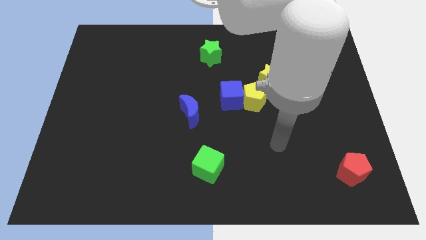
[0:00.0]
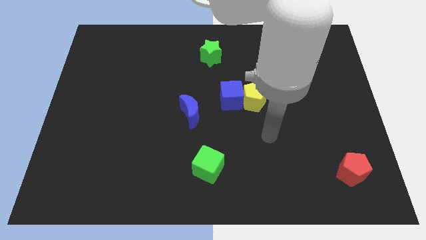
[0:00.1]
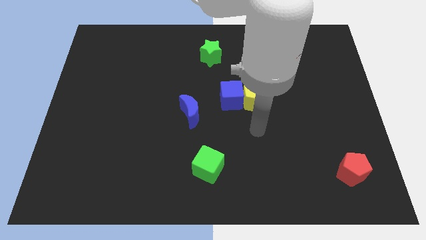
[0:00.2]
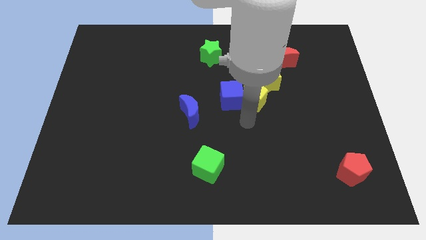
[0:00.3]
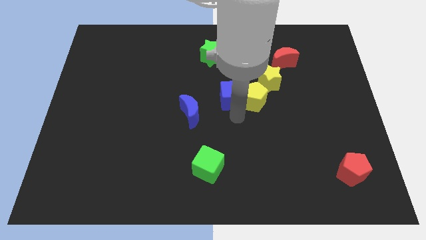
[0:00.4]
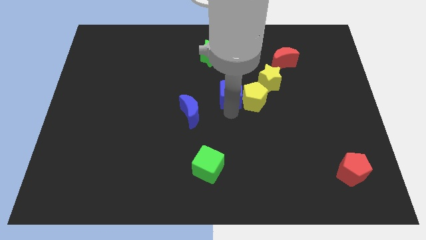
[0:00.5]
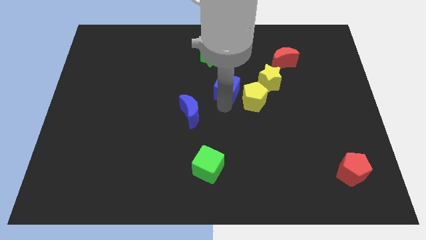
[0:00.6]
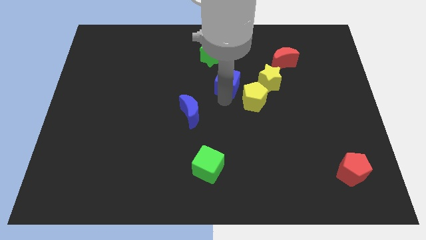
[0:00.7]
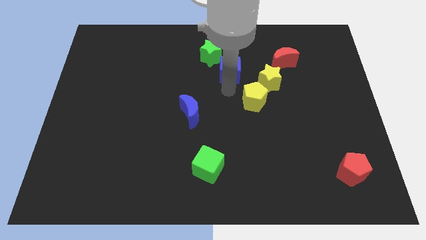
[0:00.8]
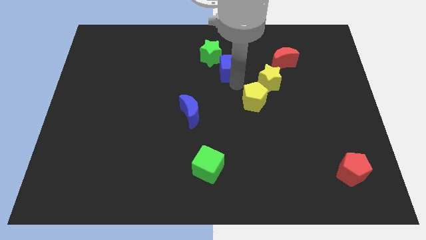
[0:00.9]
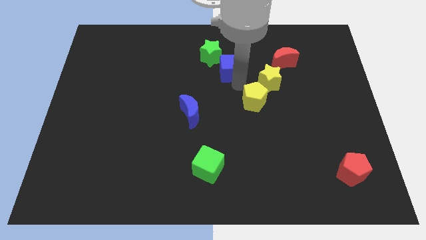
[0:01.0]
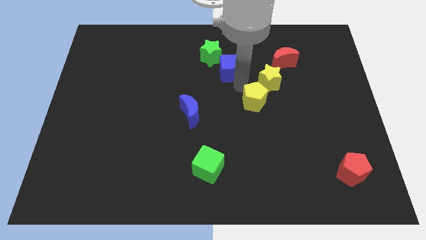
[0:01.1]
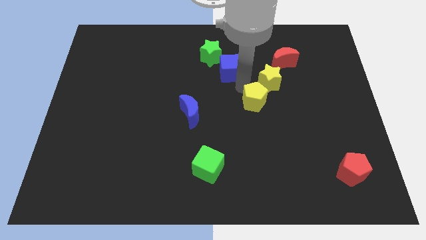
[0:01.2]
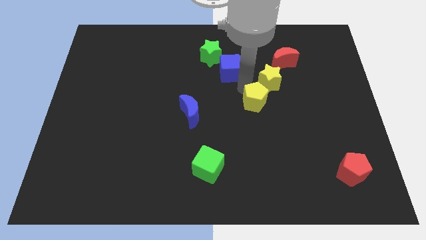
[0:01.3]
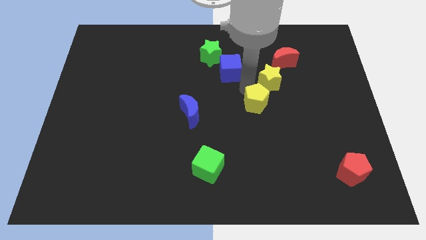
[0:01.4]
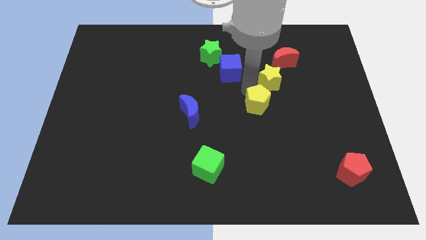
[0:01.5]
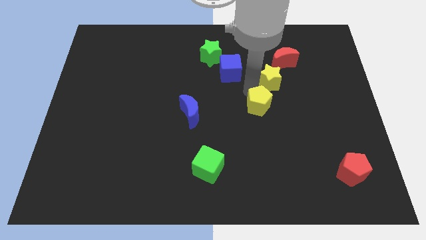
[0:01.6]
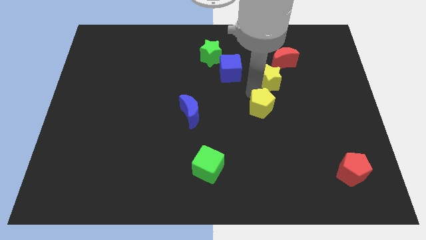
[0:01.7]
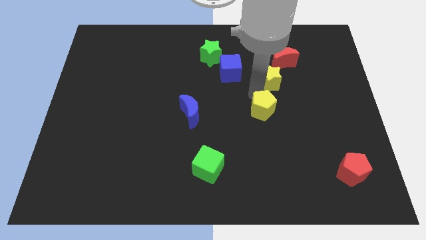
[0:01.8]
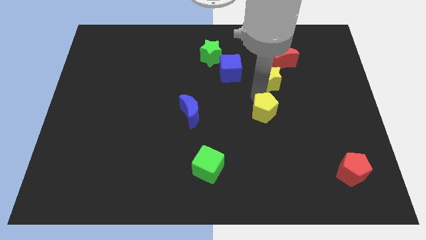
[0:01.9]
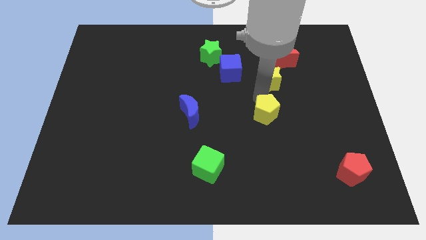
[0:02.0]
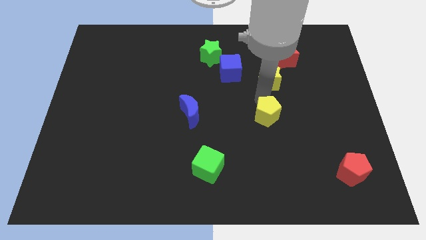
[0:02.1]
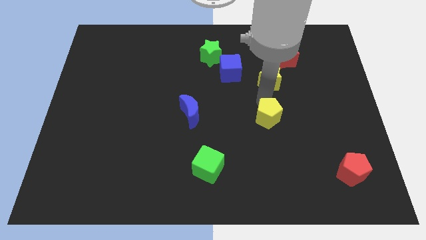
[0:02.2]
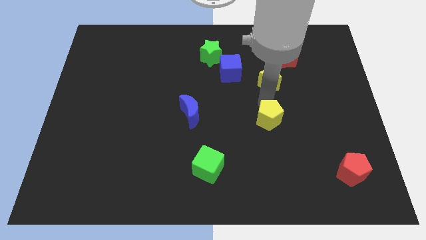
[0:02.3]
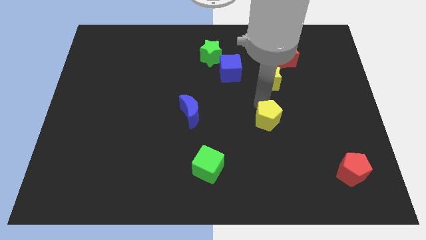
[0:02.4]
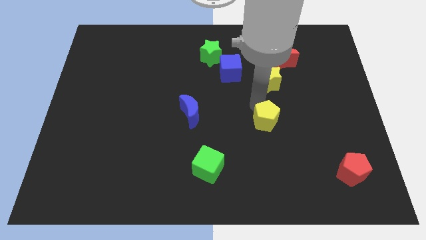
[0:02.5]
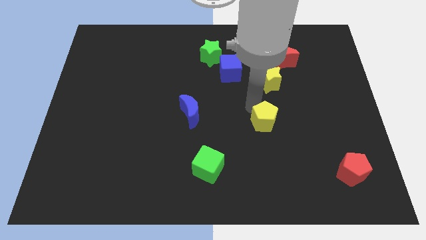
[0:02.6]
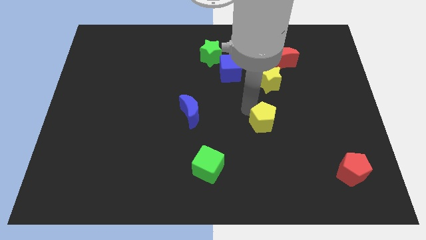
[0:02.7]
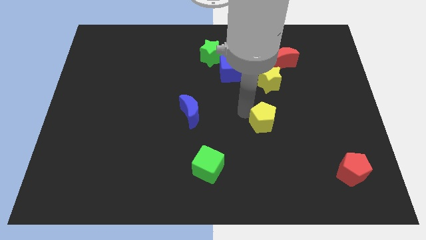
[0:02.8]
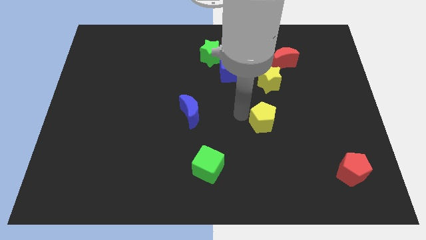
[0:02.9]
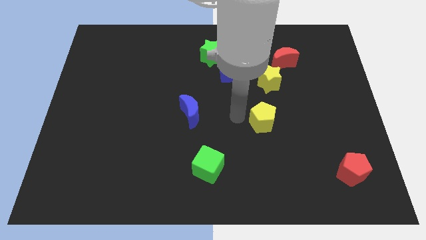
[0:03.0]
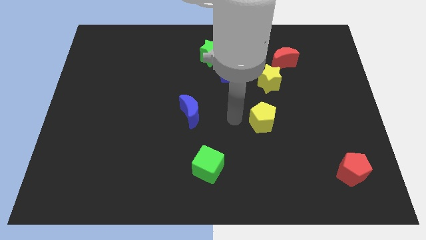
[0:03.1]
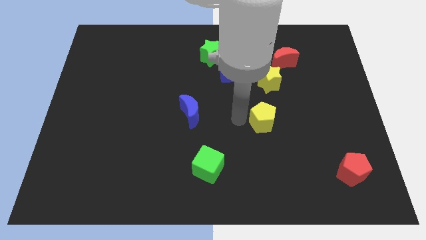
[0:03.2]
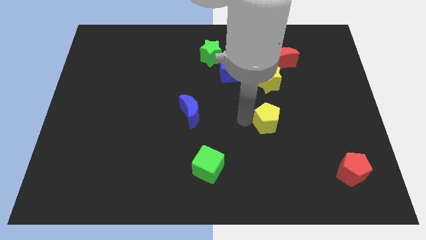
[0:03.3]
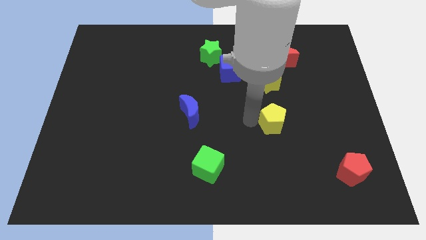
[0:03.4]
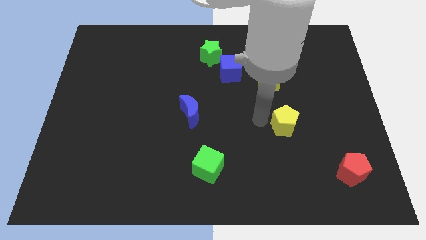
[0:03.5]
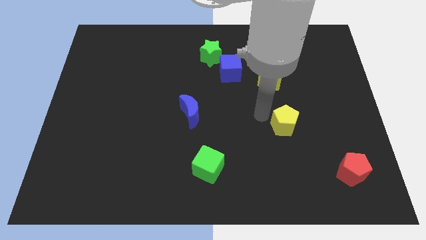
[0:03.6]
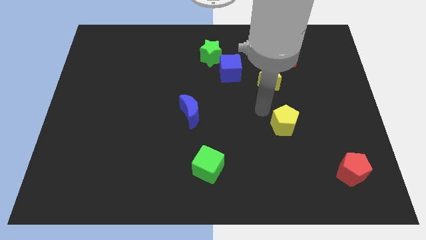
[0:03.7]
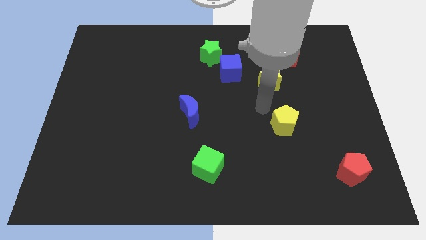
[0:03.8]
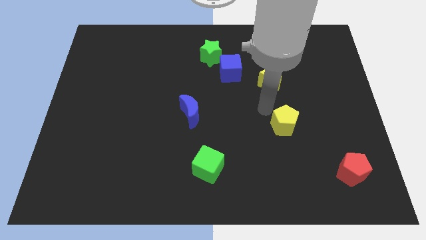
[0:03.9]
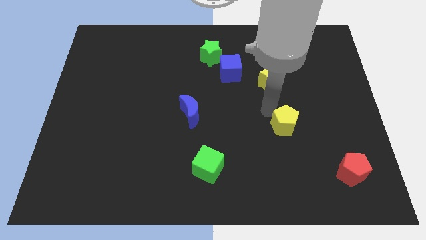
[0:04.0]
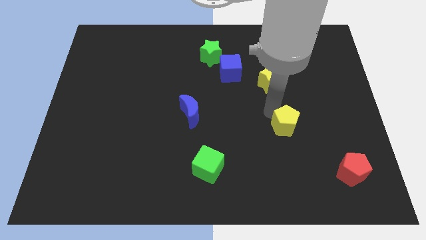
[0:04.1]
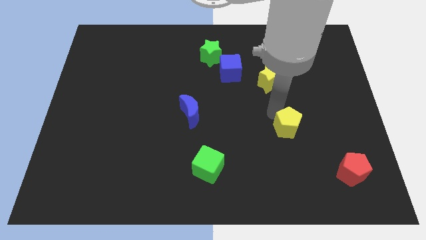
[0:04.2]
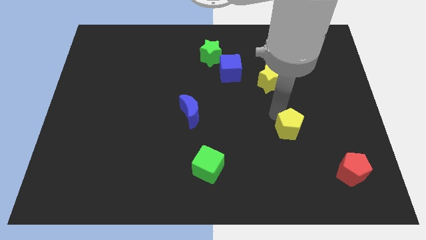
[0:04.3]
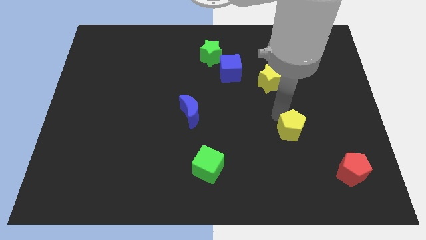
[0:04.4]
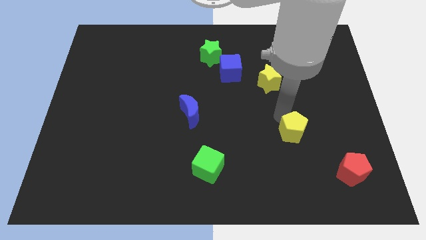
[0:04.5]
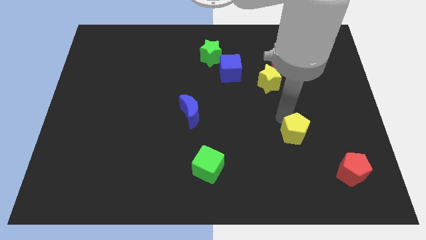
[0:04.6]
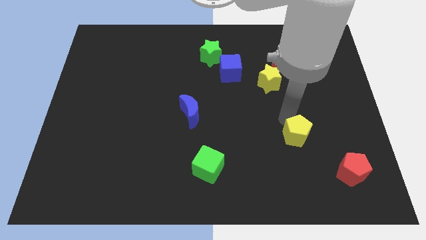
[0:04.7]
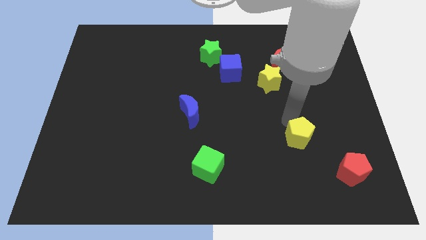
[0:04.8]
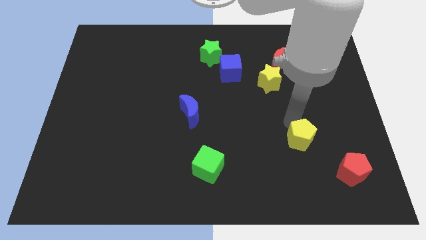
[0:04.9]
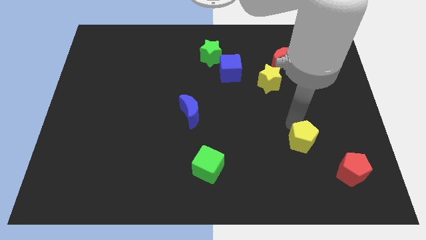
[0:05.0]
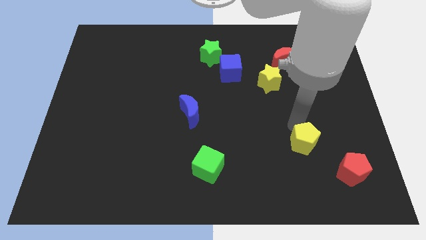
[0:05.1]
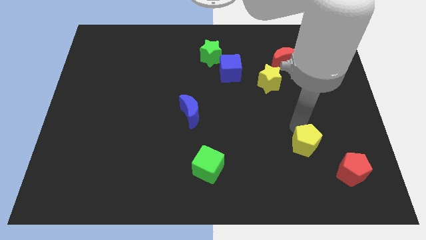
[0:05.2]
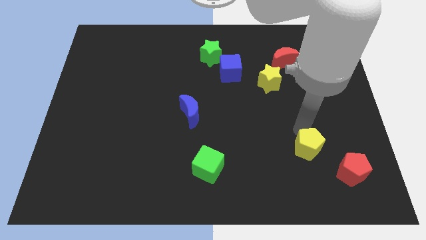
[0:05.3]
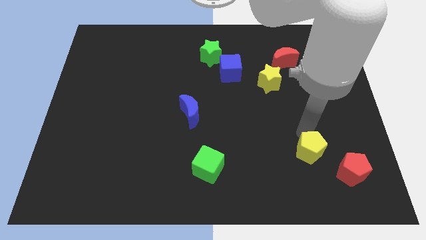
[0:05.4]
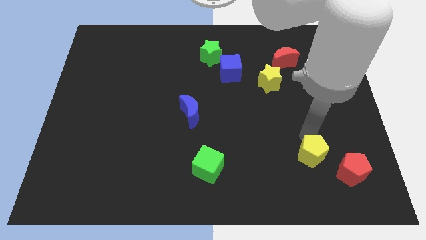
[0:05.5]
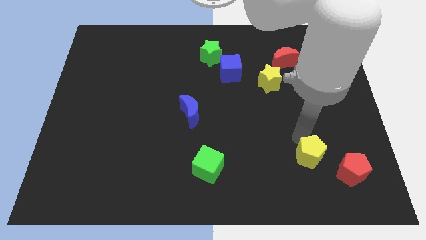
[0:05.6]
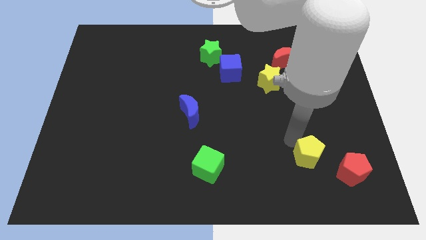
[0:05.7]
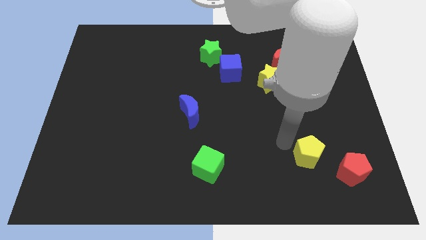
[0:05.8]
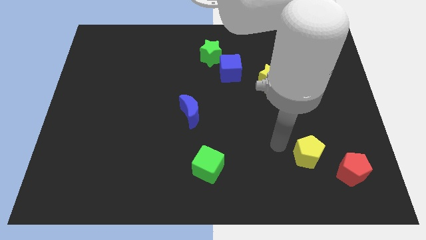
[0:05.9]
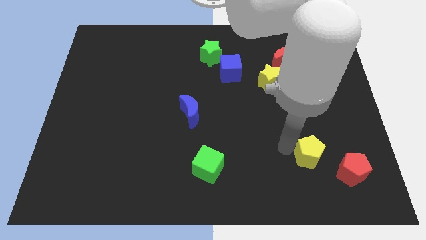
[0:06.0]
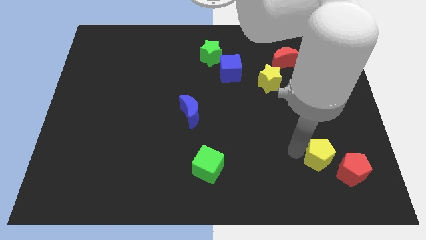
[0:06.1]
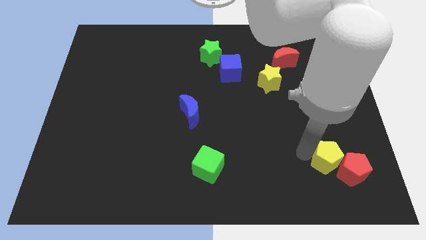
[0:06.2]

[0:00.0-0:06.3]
slide the yellow pentagon towards the red pentagon

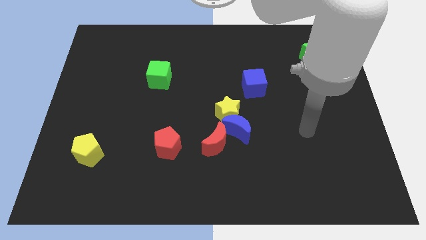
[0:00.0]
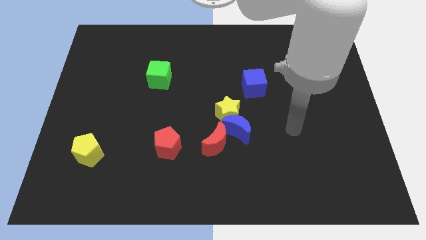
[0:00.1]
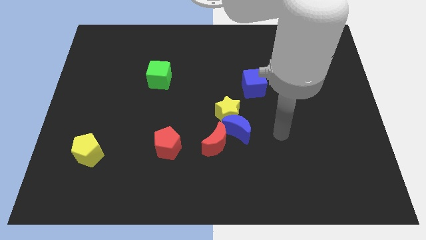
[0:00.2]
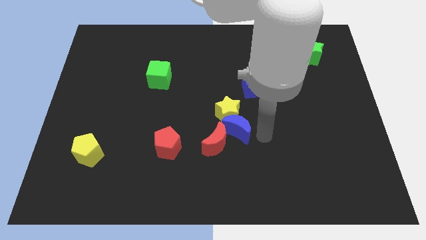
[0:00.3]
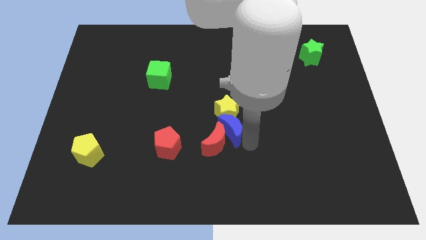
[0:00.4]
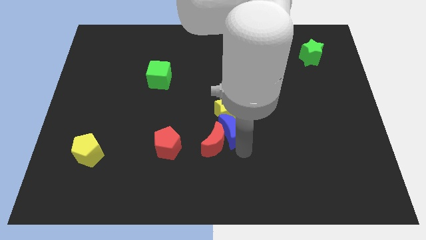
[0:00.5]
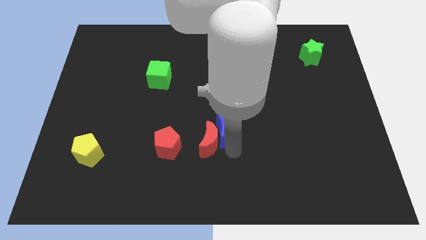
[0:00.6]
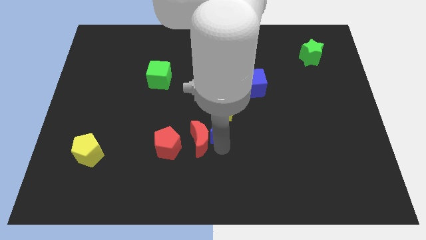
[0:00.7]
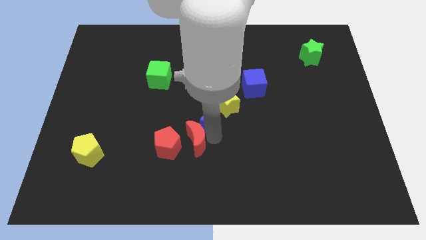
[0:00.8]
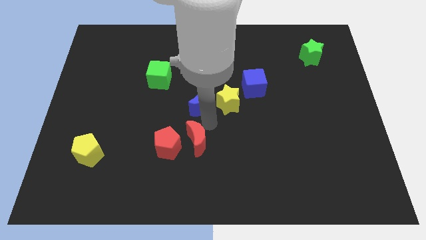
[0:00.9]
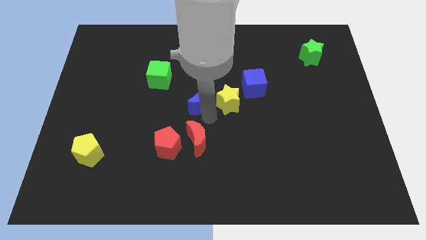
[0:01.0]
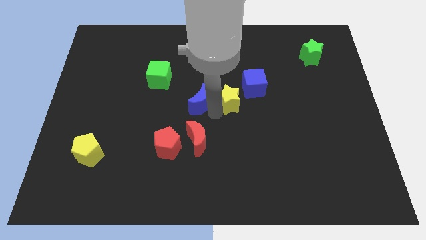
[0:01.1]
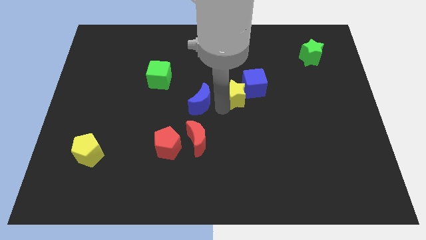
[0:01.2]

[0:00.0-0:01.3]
slide the yellow star close to the blue cube
